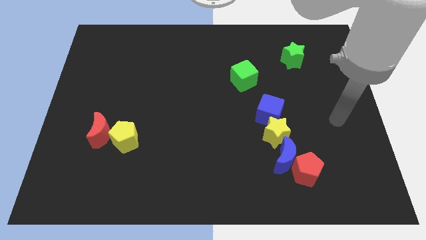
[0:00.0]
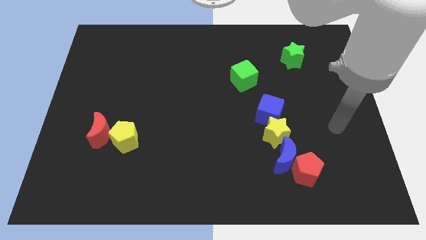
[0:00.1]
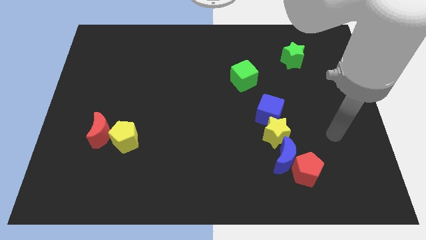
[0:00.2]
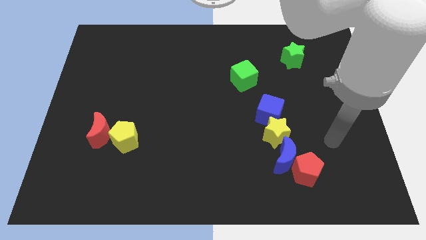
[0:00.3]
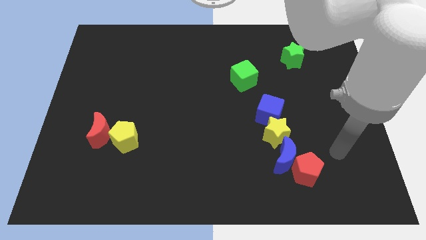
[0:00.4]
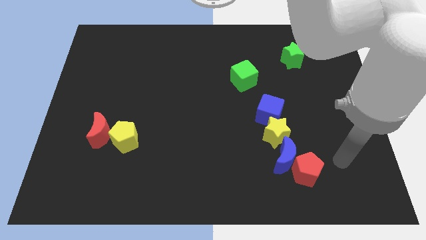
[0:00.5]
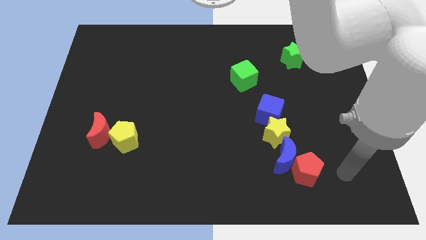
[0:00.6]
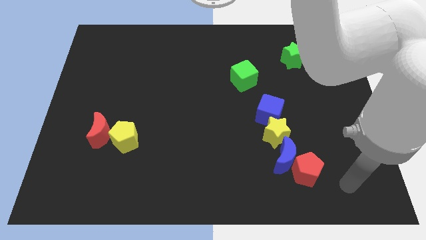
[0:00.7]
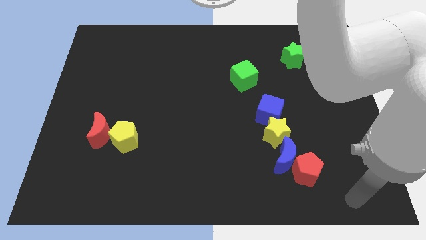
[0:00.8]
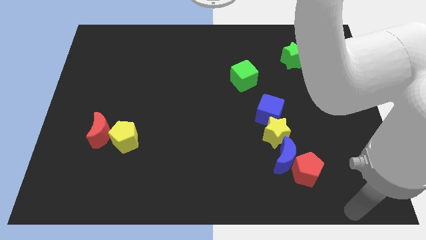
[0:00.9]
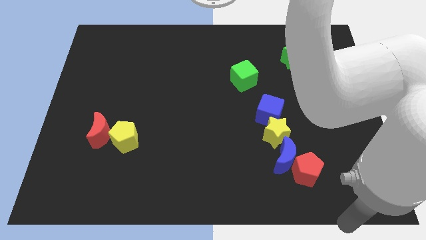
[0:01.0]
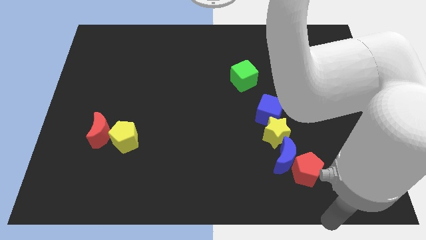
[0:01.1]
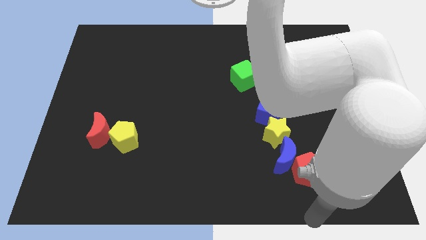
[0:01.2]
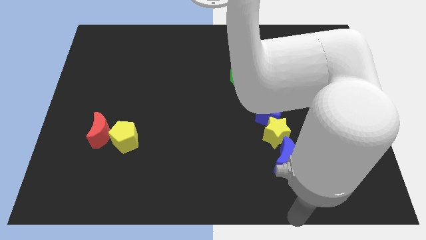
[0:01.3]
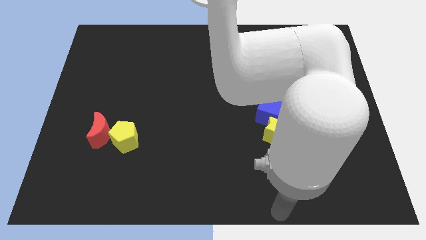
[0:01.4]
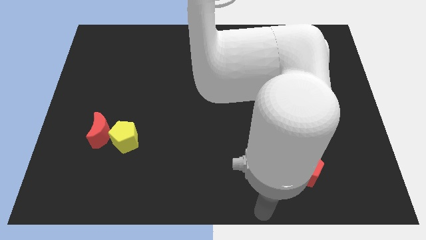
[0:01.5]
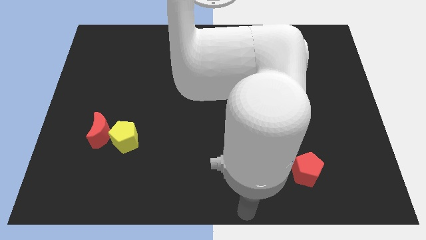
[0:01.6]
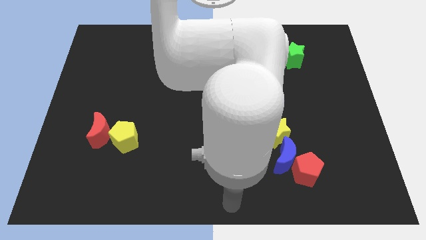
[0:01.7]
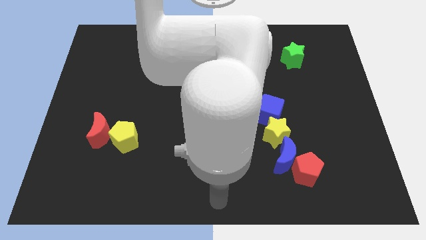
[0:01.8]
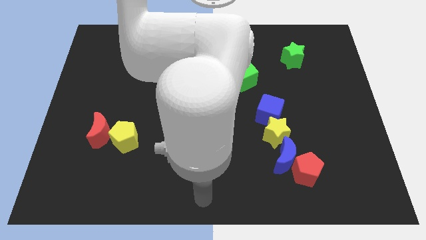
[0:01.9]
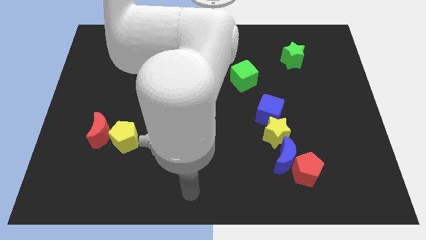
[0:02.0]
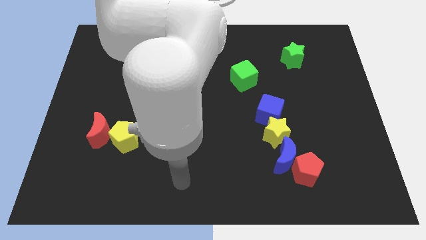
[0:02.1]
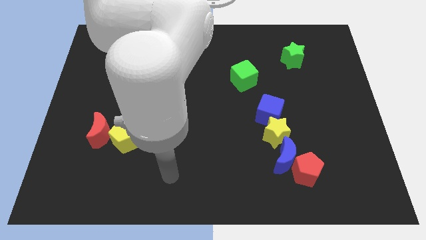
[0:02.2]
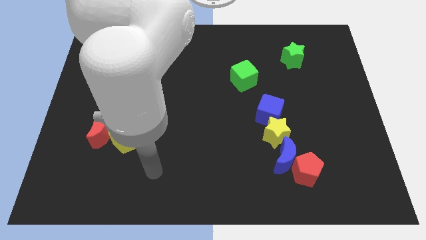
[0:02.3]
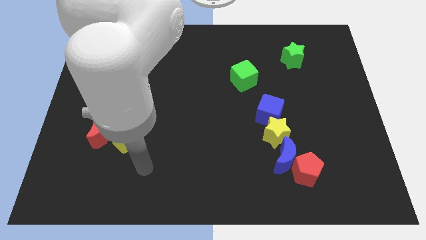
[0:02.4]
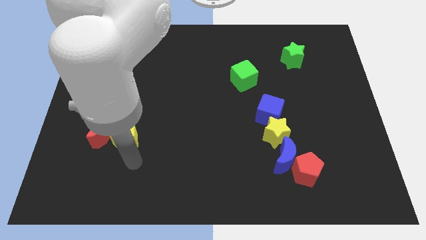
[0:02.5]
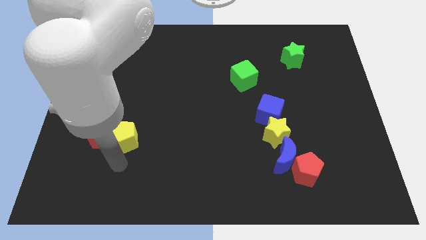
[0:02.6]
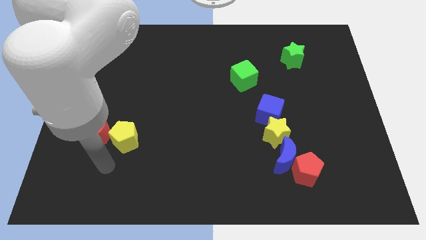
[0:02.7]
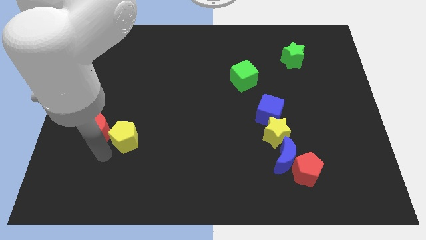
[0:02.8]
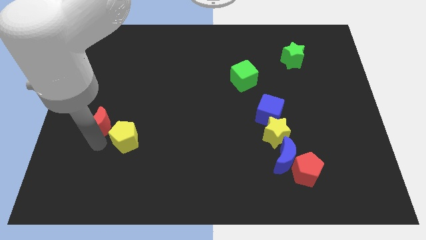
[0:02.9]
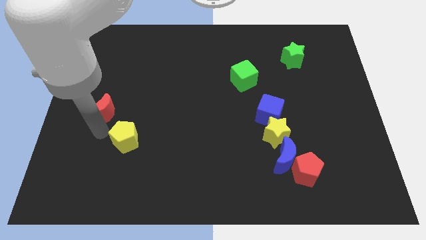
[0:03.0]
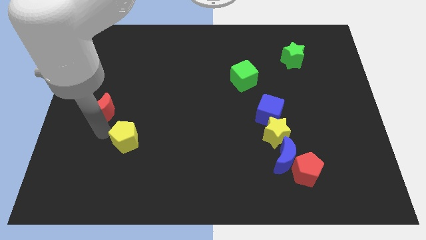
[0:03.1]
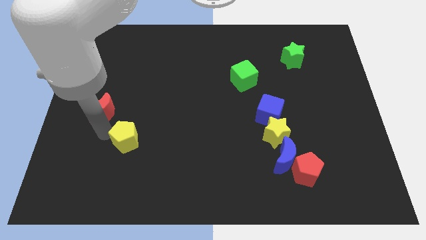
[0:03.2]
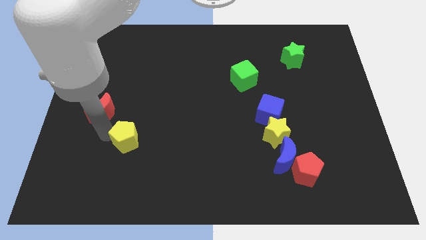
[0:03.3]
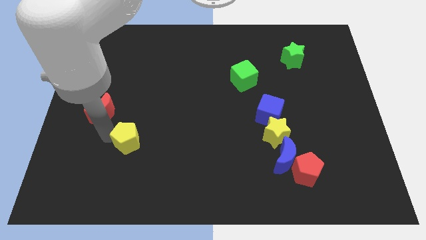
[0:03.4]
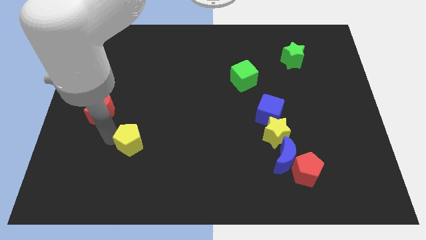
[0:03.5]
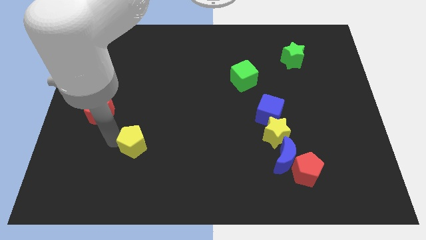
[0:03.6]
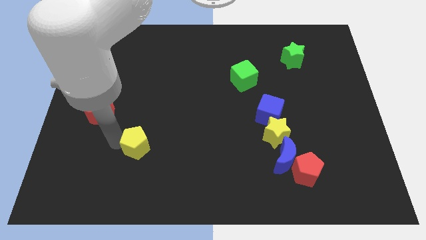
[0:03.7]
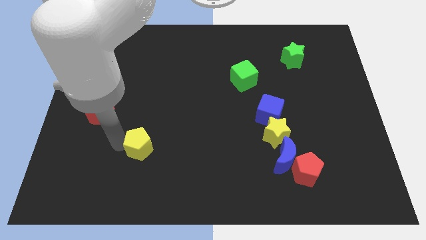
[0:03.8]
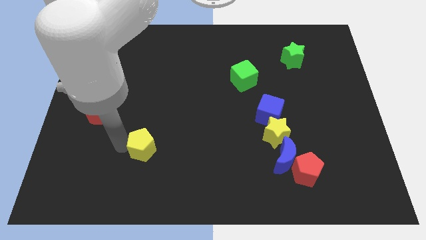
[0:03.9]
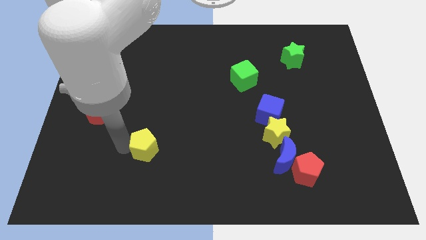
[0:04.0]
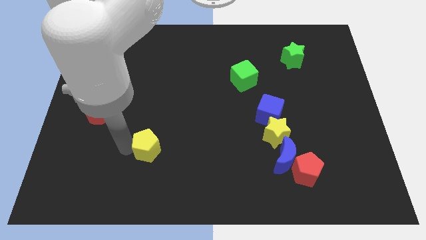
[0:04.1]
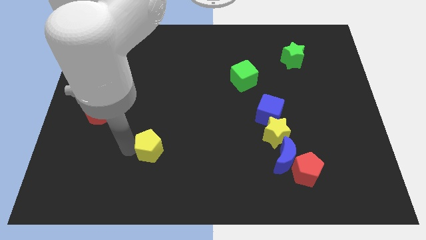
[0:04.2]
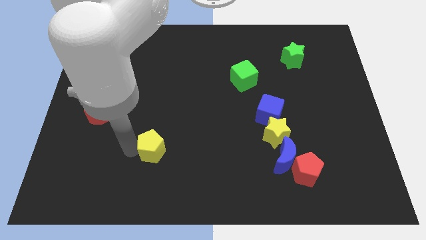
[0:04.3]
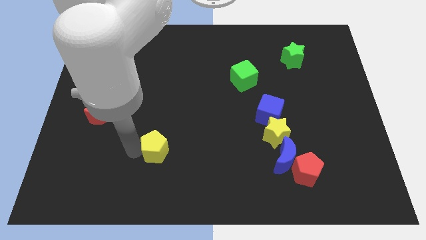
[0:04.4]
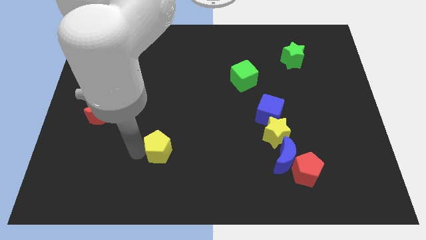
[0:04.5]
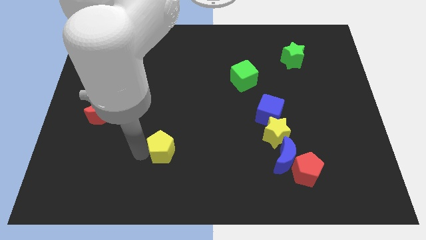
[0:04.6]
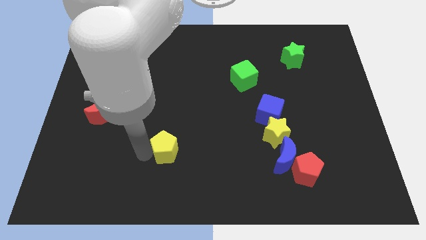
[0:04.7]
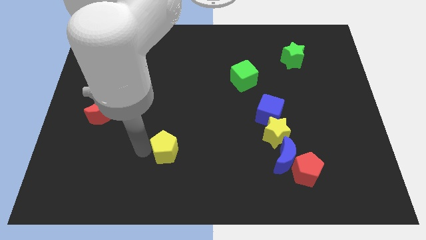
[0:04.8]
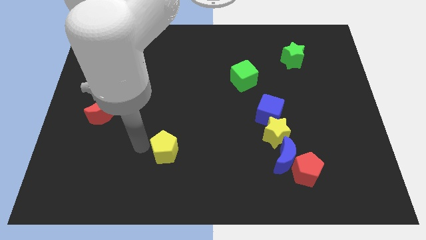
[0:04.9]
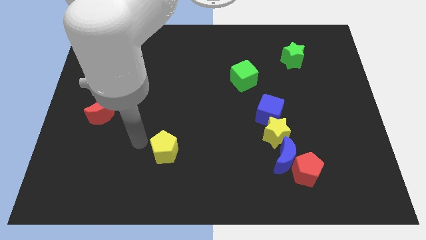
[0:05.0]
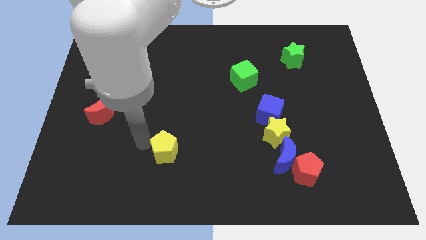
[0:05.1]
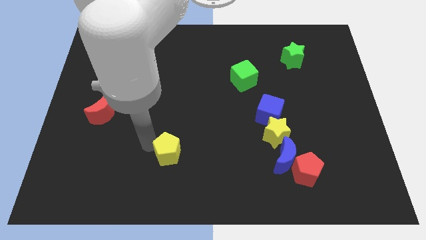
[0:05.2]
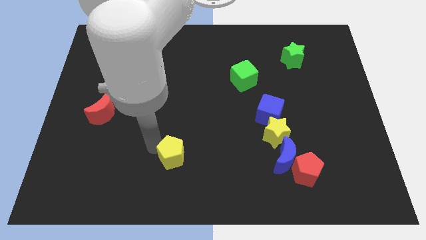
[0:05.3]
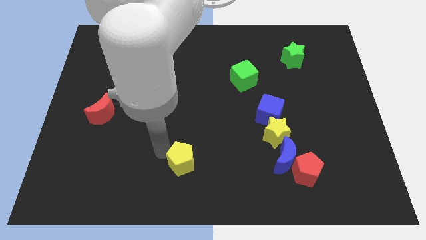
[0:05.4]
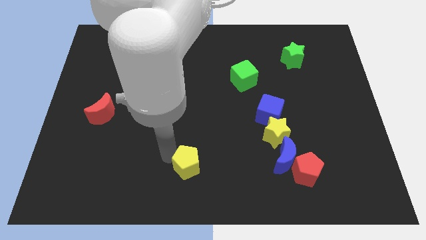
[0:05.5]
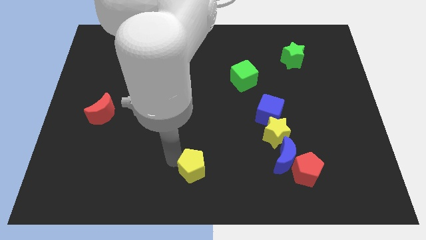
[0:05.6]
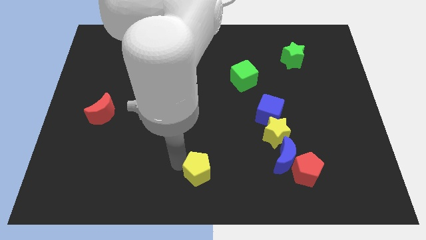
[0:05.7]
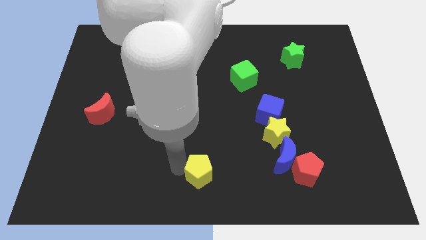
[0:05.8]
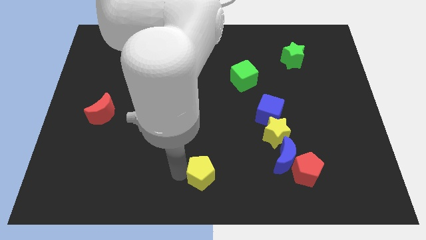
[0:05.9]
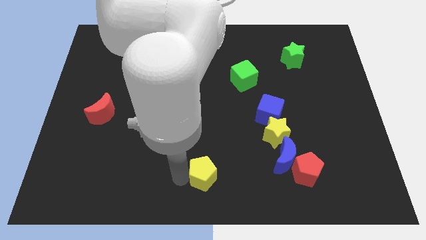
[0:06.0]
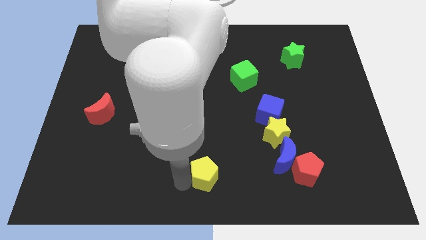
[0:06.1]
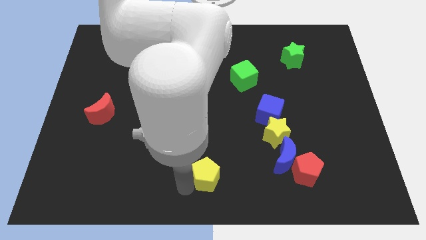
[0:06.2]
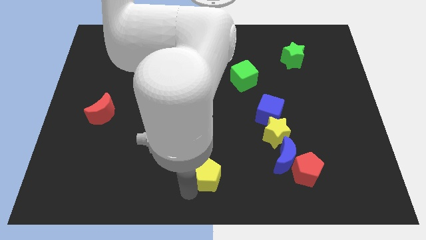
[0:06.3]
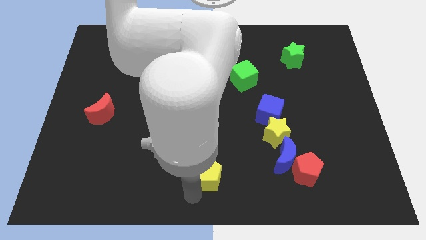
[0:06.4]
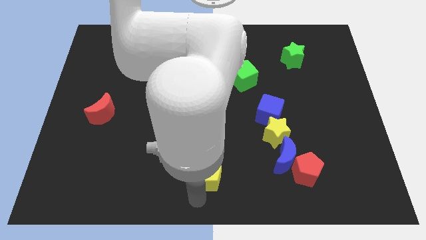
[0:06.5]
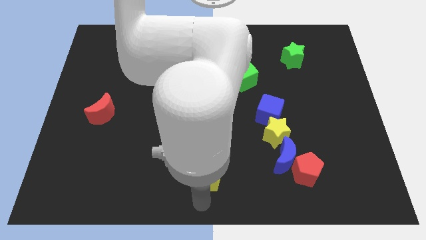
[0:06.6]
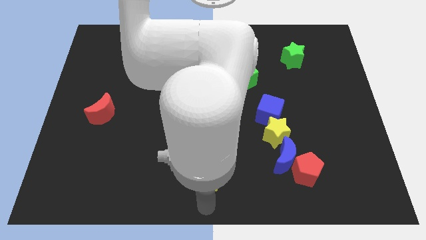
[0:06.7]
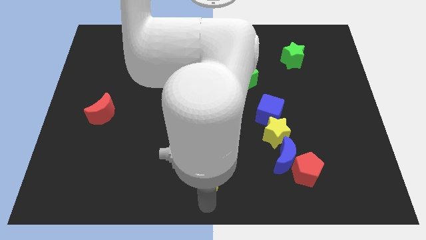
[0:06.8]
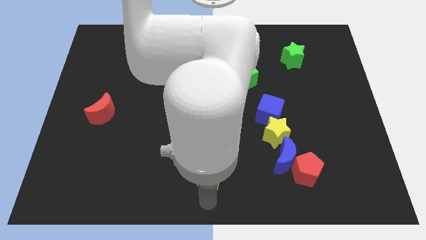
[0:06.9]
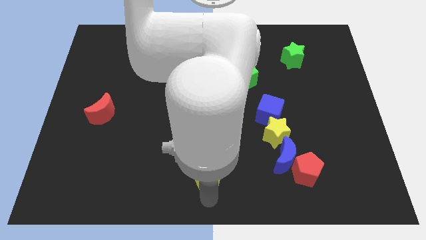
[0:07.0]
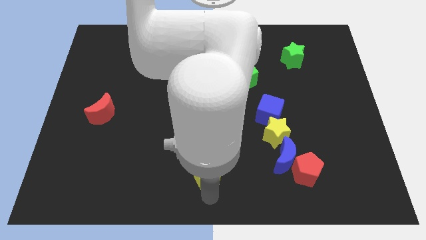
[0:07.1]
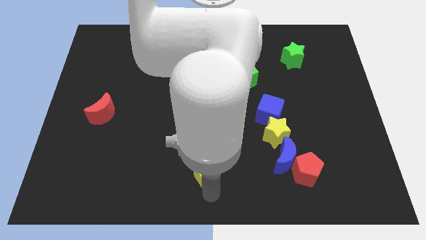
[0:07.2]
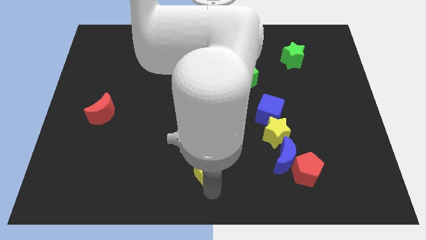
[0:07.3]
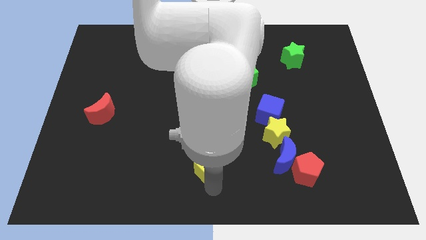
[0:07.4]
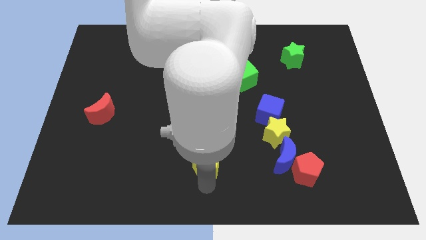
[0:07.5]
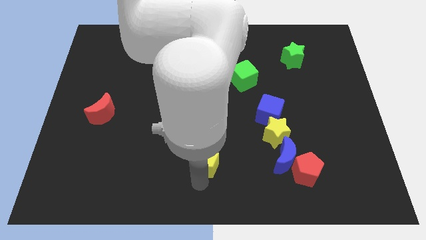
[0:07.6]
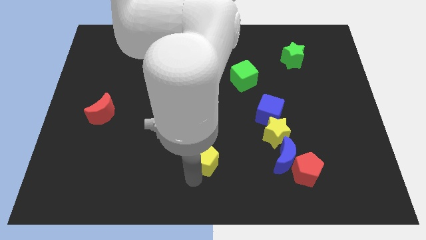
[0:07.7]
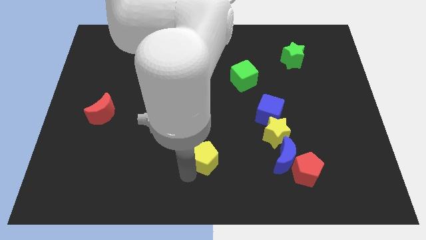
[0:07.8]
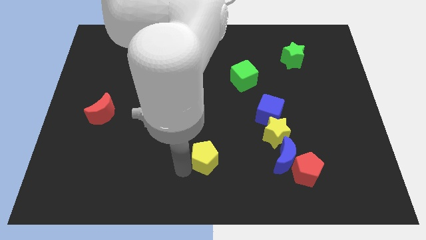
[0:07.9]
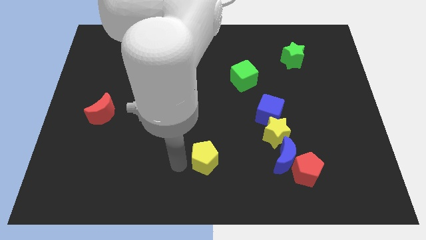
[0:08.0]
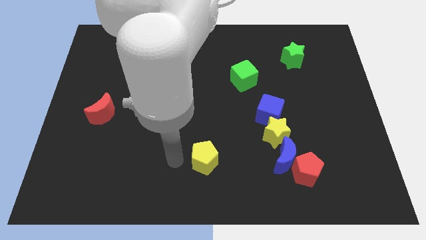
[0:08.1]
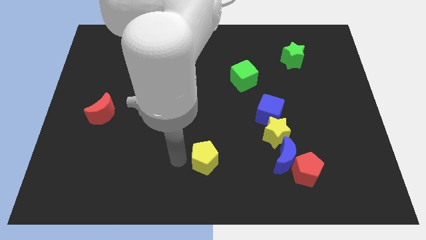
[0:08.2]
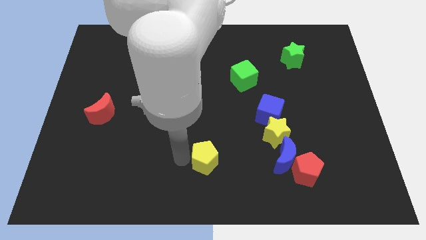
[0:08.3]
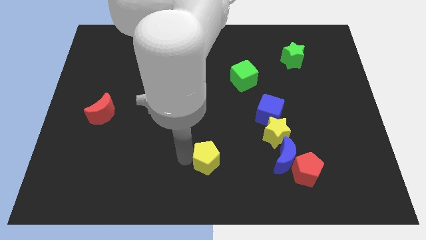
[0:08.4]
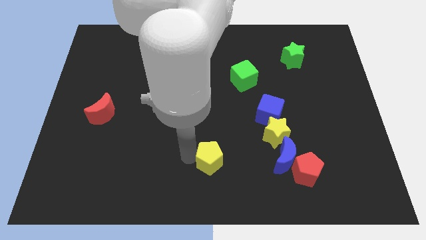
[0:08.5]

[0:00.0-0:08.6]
slide the yellow pentagon just left of the blue moon
